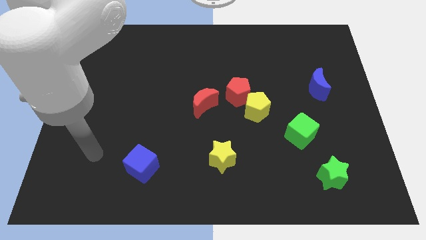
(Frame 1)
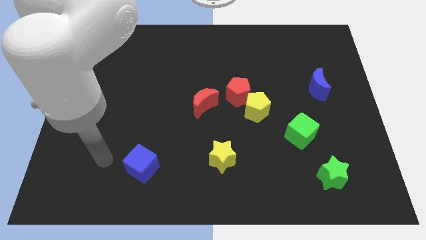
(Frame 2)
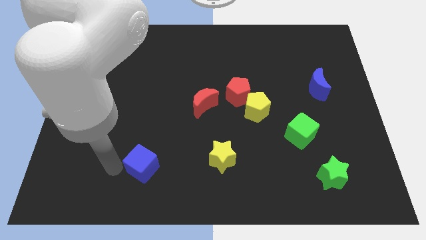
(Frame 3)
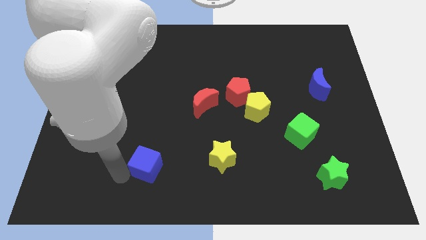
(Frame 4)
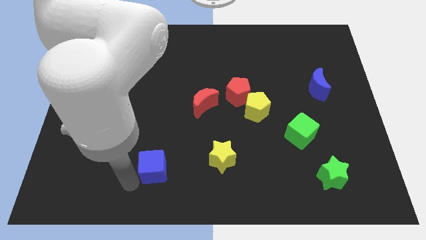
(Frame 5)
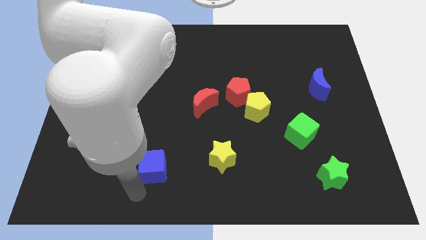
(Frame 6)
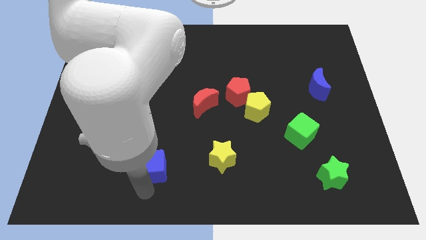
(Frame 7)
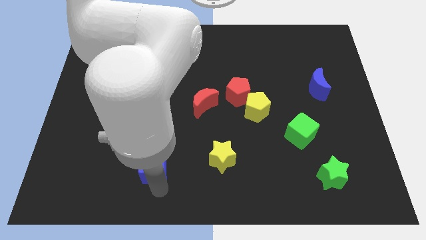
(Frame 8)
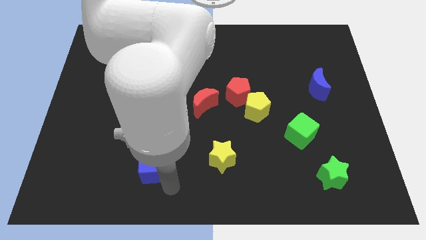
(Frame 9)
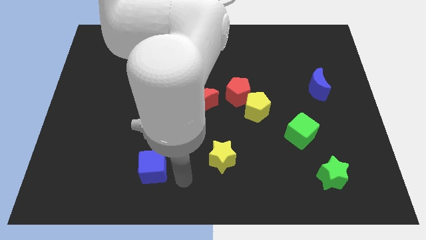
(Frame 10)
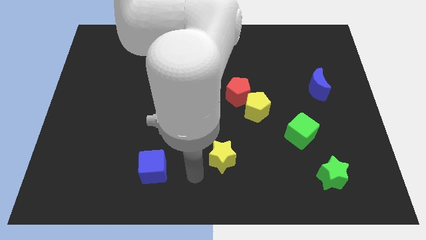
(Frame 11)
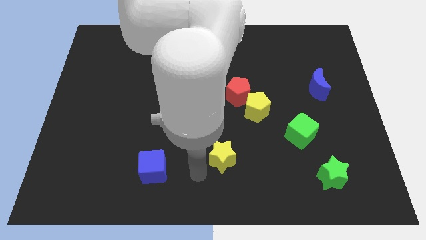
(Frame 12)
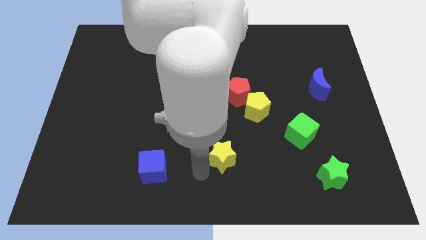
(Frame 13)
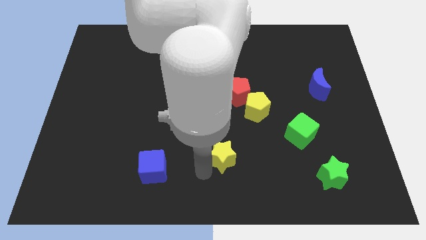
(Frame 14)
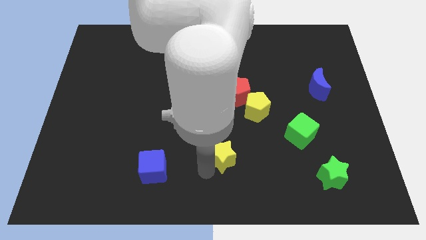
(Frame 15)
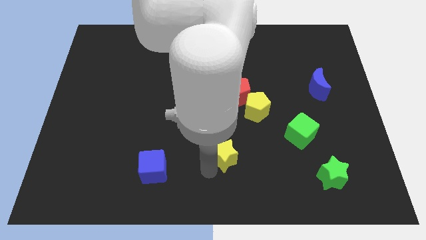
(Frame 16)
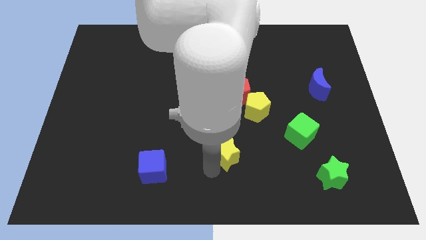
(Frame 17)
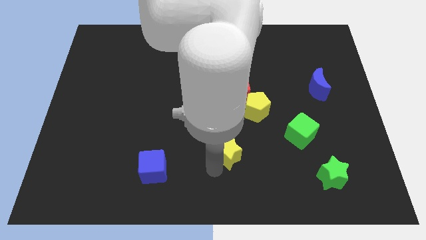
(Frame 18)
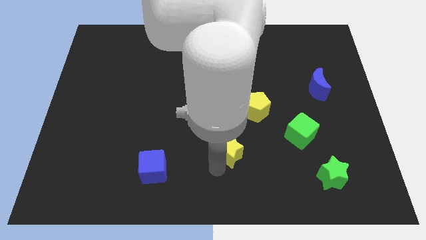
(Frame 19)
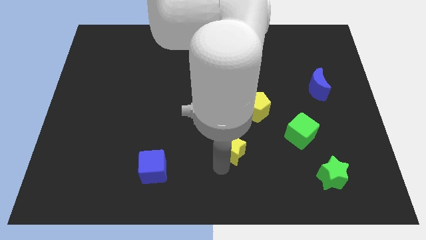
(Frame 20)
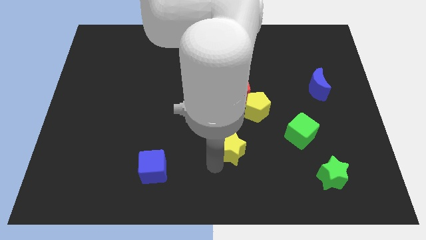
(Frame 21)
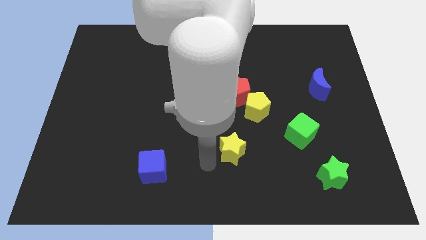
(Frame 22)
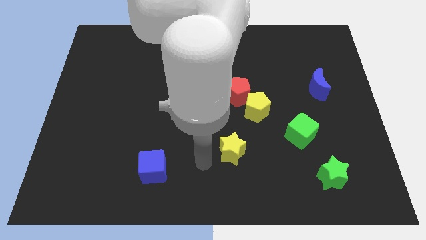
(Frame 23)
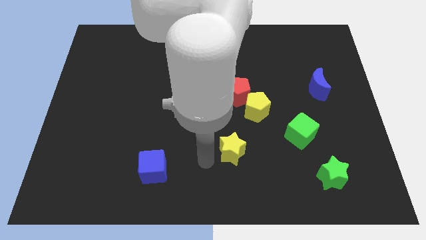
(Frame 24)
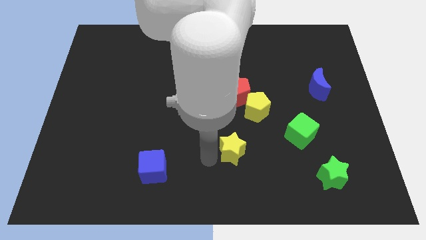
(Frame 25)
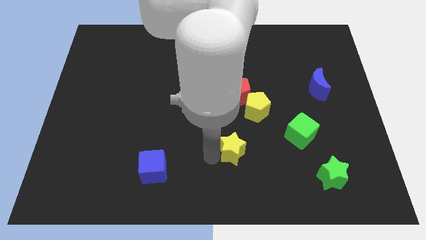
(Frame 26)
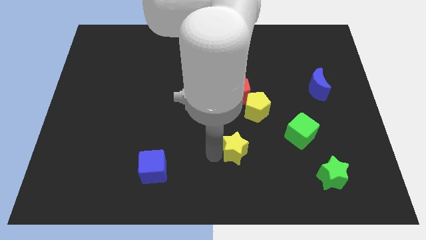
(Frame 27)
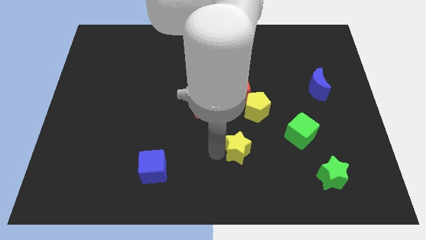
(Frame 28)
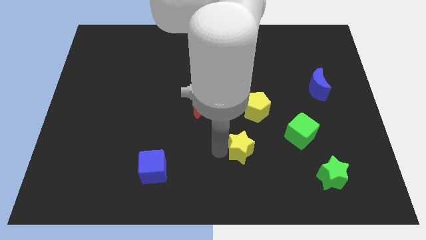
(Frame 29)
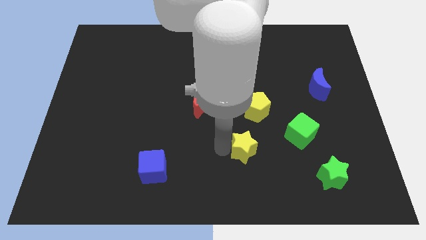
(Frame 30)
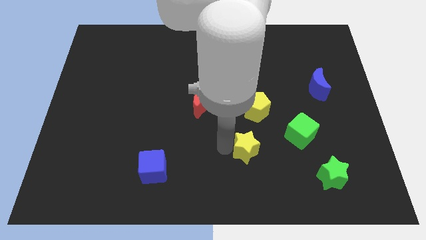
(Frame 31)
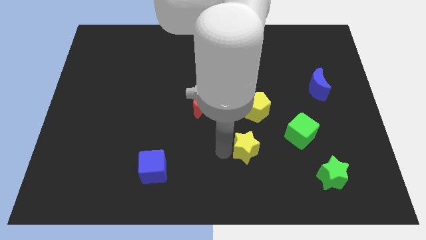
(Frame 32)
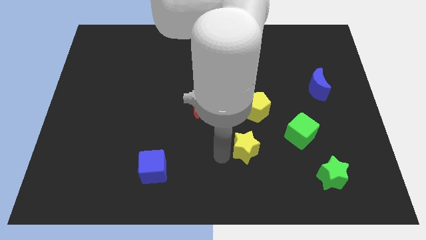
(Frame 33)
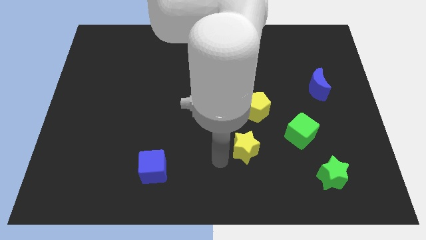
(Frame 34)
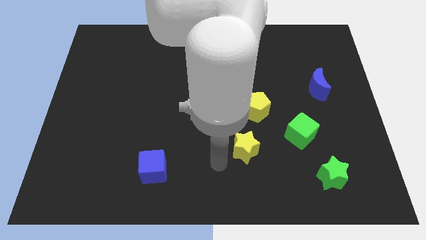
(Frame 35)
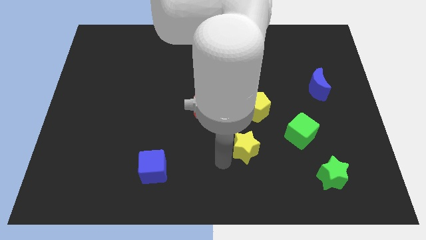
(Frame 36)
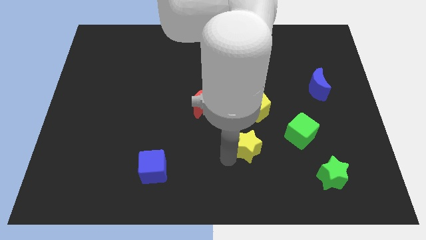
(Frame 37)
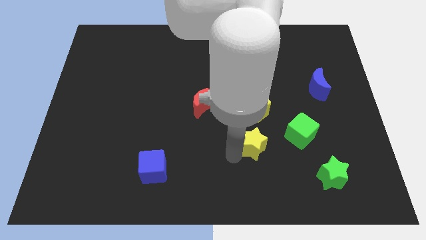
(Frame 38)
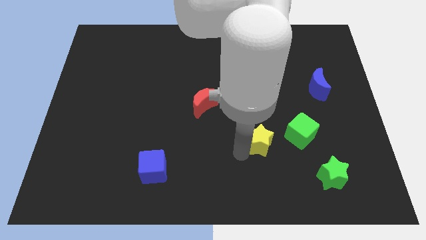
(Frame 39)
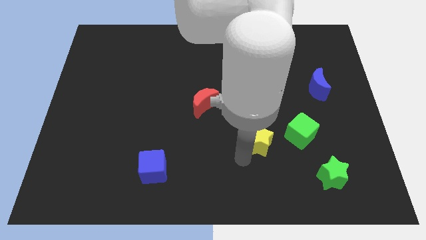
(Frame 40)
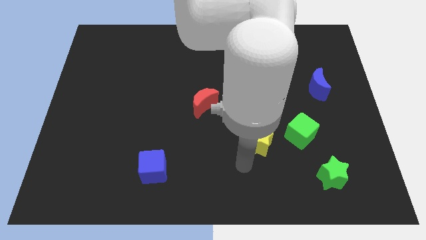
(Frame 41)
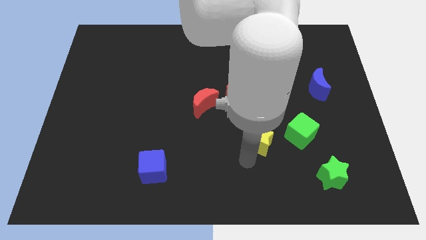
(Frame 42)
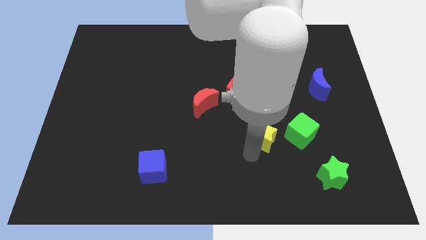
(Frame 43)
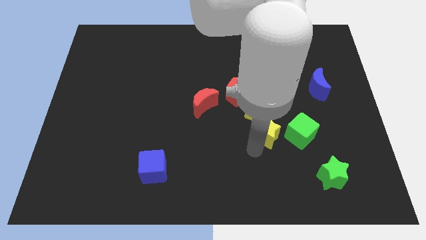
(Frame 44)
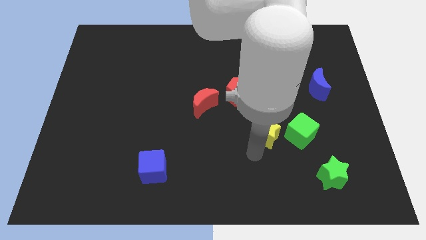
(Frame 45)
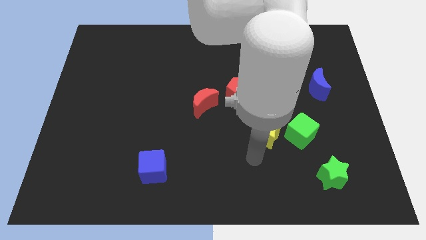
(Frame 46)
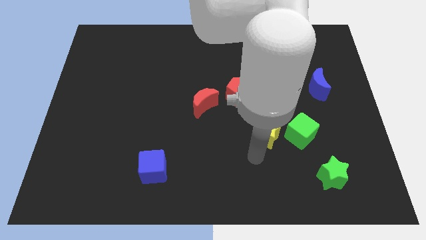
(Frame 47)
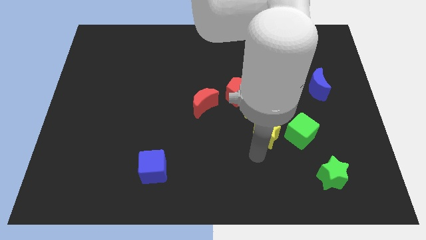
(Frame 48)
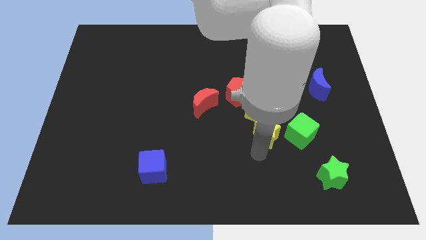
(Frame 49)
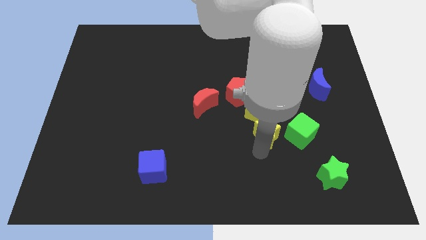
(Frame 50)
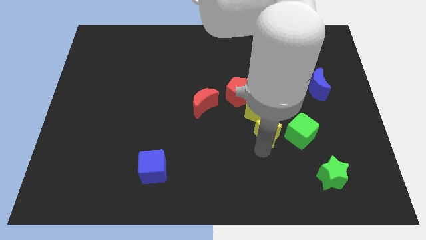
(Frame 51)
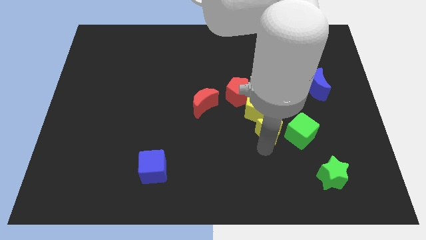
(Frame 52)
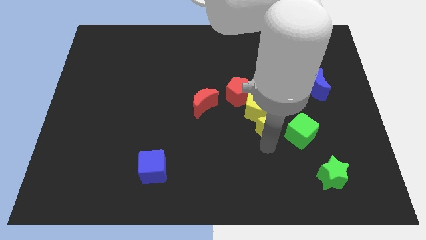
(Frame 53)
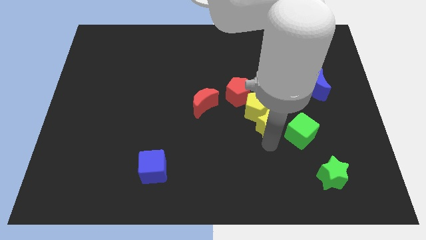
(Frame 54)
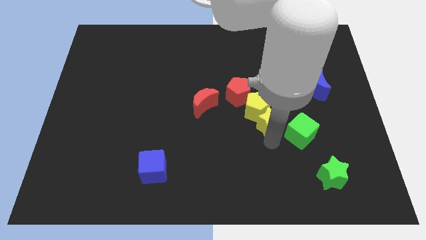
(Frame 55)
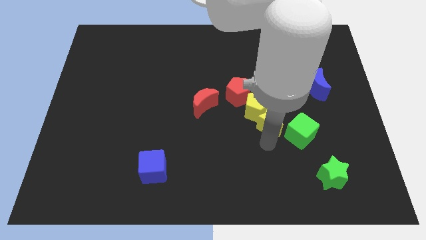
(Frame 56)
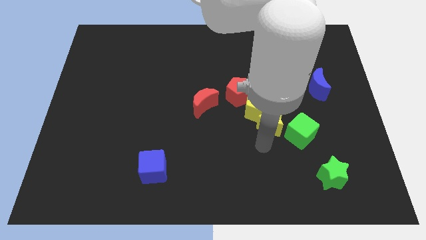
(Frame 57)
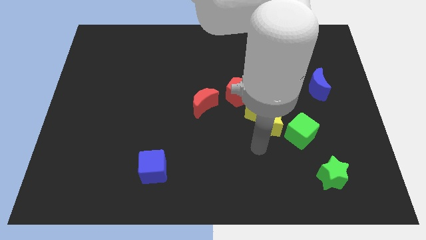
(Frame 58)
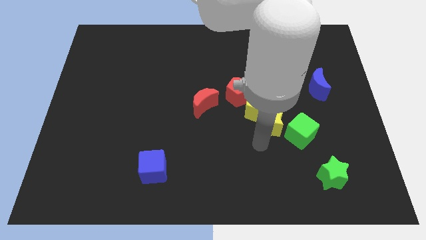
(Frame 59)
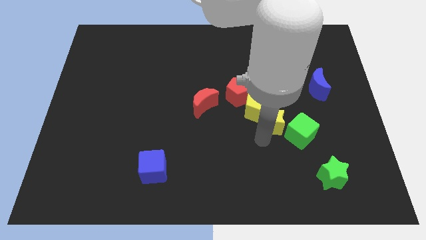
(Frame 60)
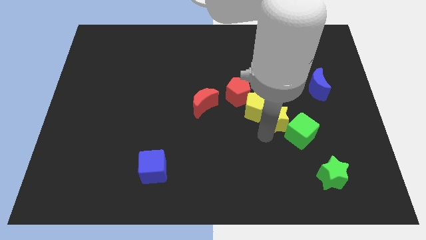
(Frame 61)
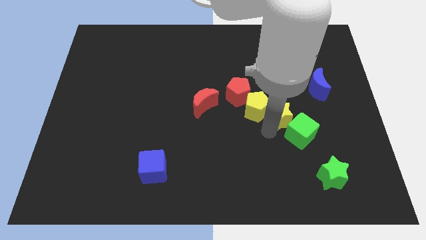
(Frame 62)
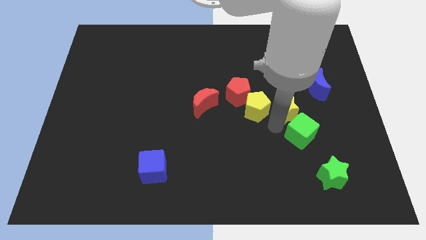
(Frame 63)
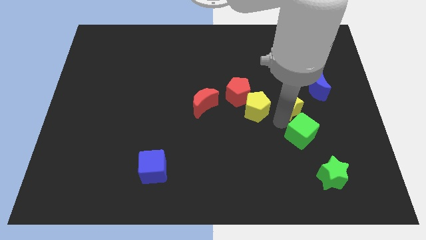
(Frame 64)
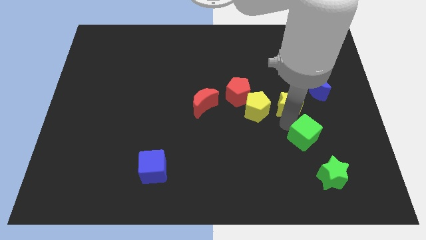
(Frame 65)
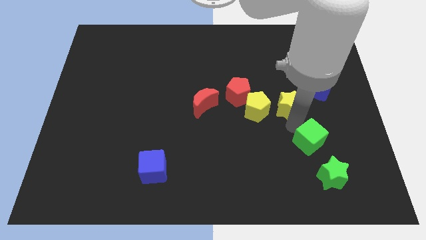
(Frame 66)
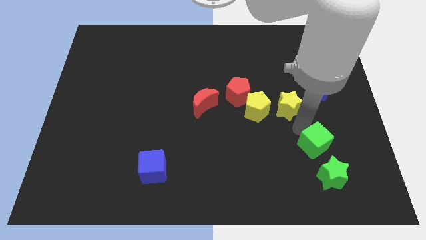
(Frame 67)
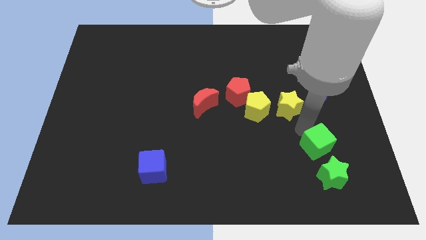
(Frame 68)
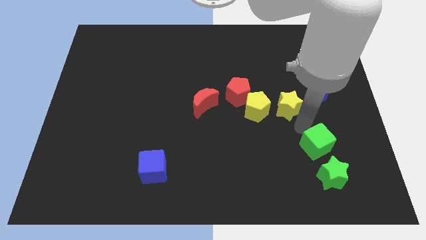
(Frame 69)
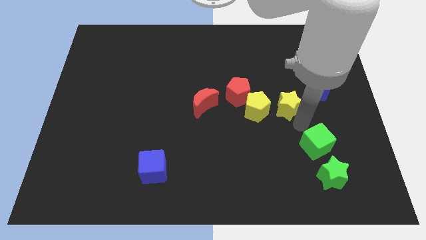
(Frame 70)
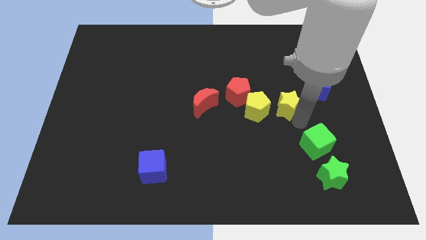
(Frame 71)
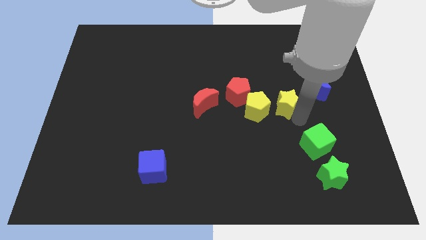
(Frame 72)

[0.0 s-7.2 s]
slide the yellow star to the top right side of the yellow pentagon
